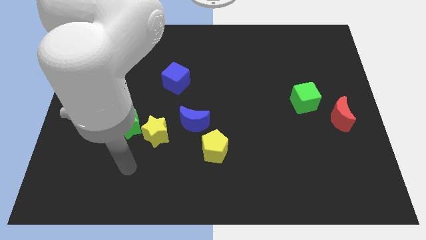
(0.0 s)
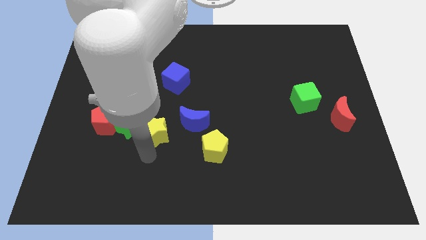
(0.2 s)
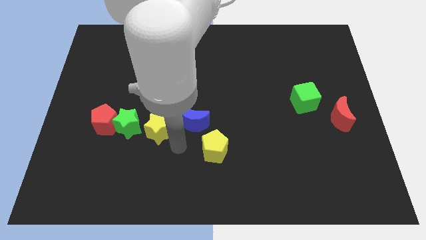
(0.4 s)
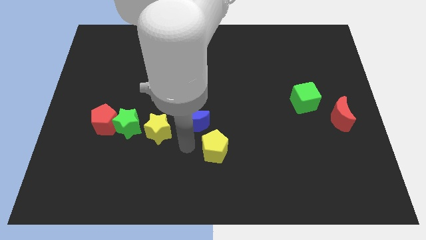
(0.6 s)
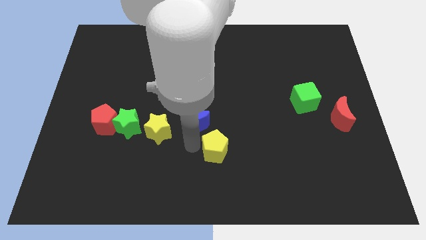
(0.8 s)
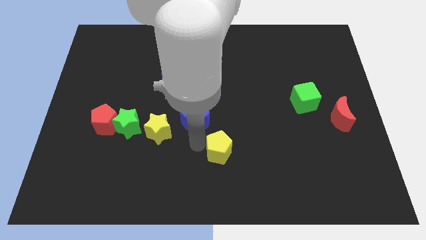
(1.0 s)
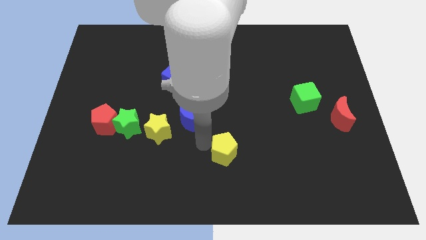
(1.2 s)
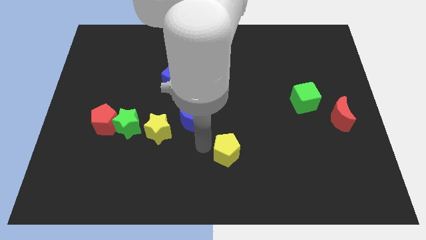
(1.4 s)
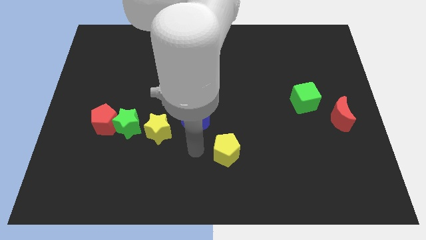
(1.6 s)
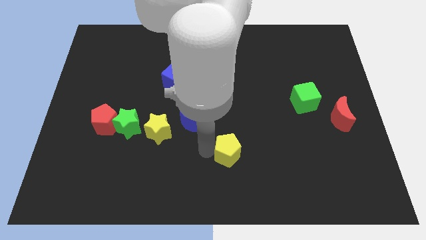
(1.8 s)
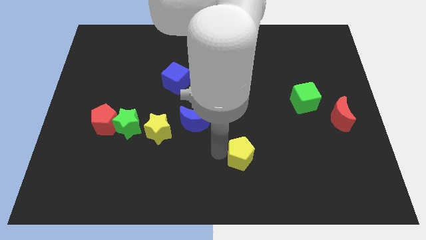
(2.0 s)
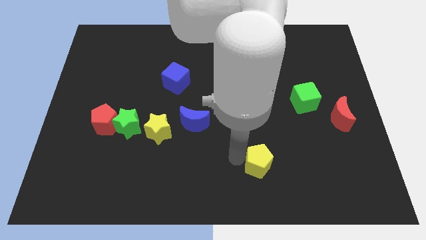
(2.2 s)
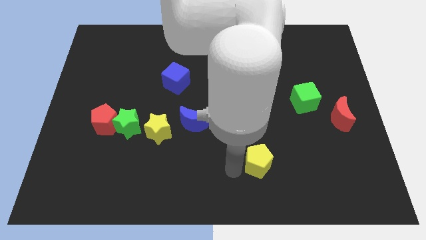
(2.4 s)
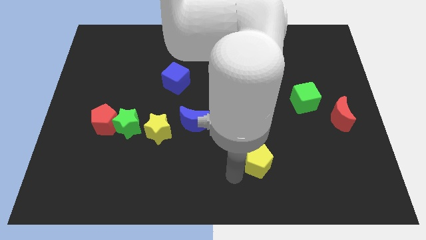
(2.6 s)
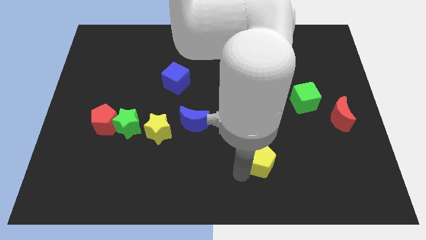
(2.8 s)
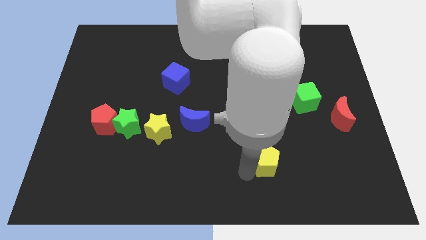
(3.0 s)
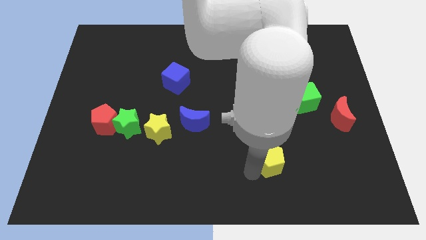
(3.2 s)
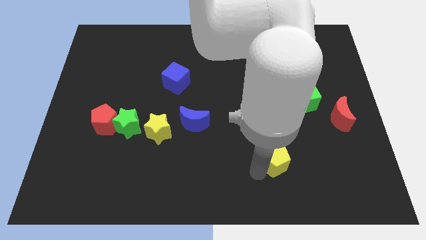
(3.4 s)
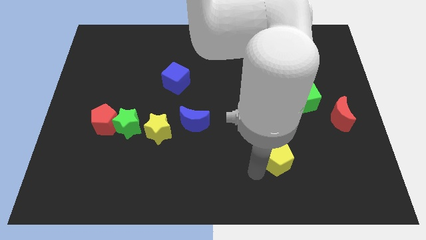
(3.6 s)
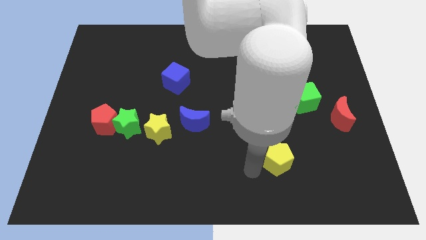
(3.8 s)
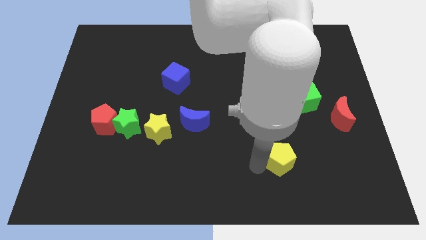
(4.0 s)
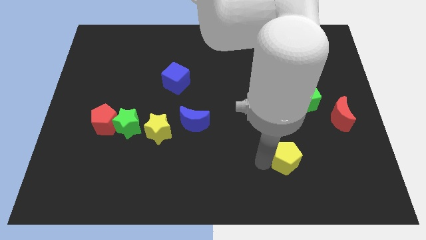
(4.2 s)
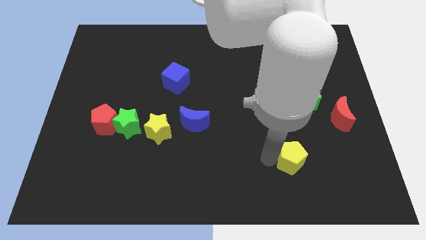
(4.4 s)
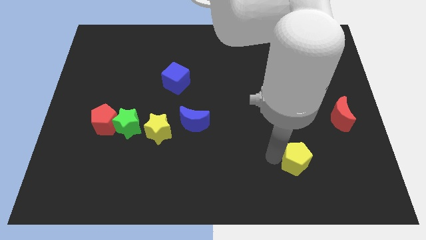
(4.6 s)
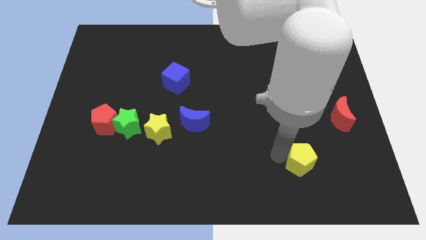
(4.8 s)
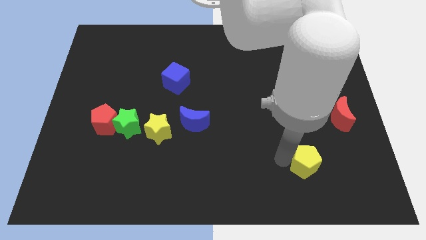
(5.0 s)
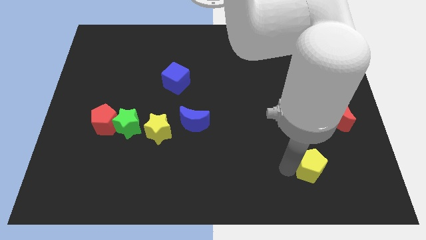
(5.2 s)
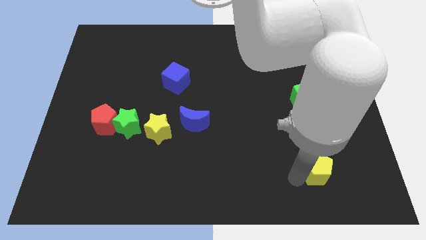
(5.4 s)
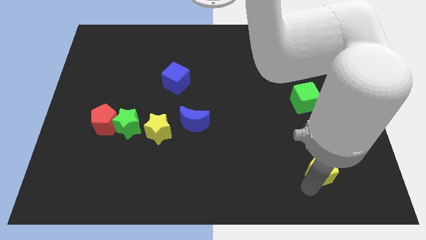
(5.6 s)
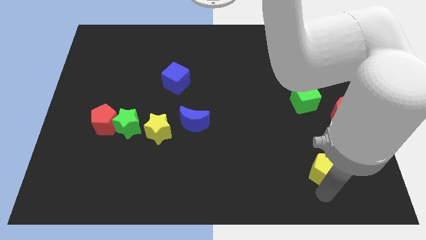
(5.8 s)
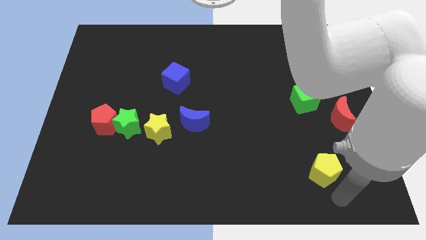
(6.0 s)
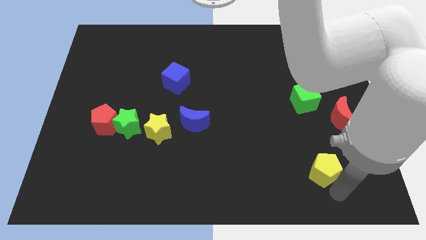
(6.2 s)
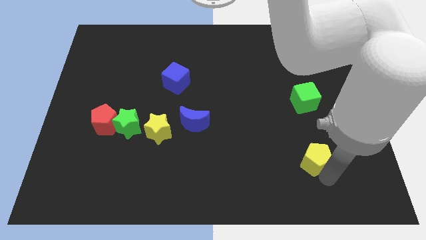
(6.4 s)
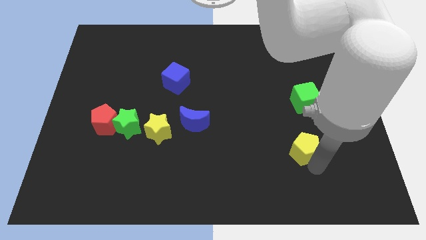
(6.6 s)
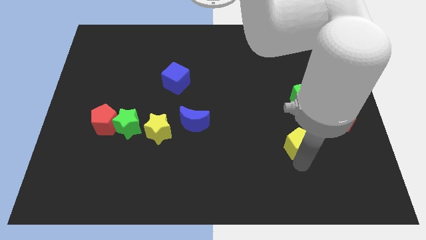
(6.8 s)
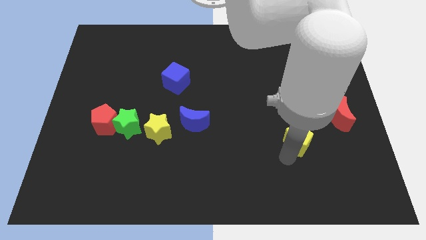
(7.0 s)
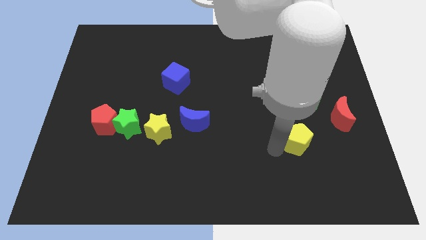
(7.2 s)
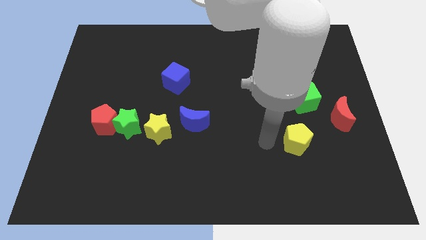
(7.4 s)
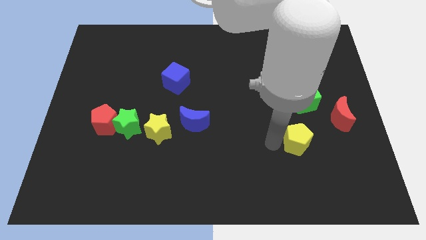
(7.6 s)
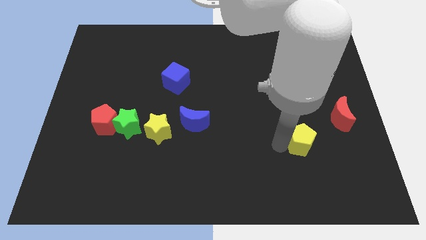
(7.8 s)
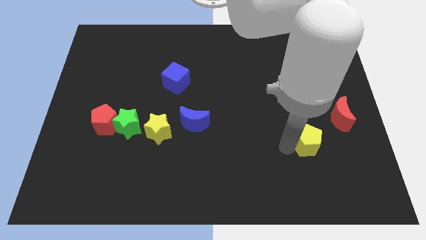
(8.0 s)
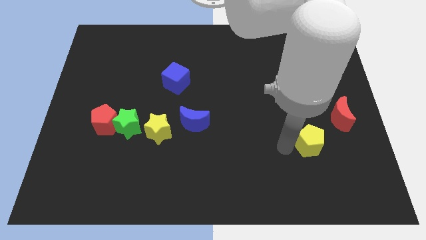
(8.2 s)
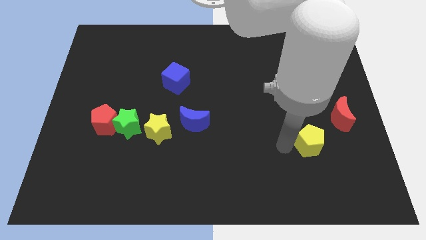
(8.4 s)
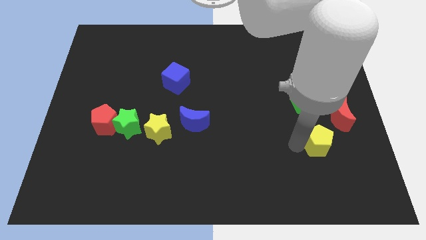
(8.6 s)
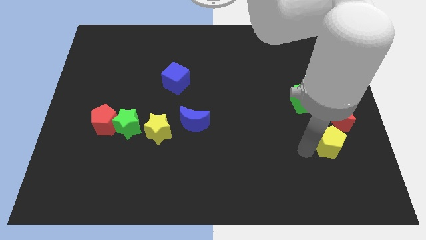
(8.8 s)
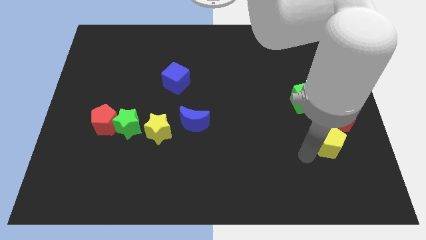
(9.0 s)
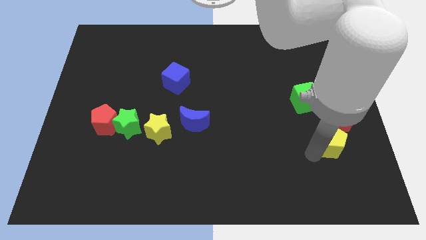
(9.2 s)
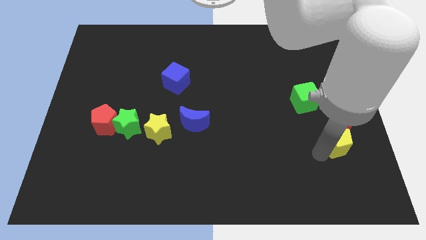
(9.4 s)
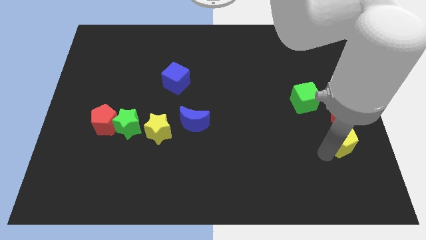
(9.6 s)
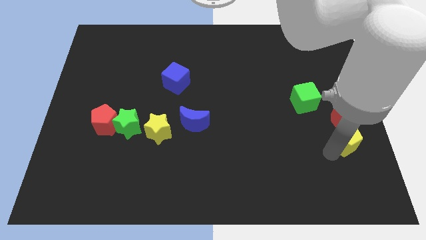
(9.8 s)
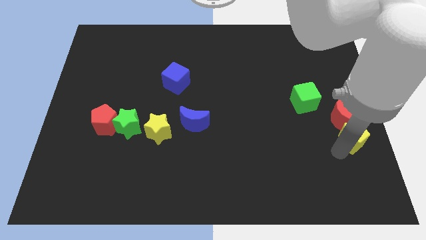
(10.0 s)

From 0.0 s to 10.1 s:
slide the yellow pentagon to the center right

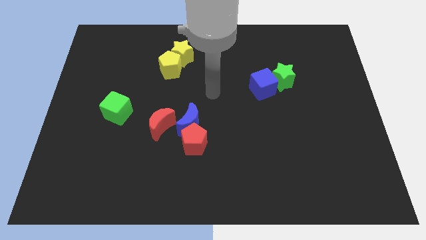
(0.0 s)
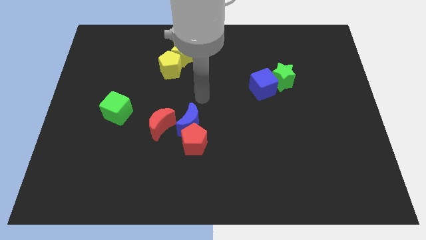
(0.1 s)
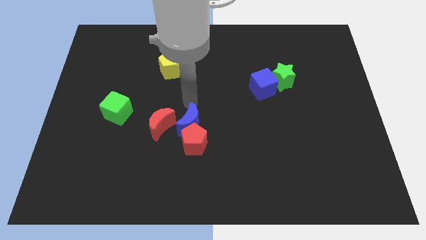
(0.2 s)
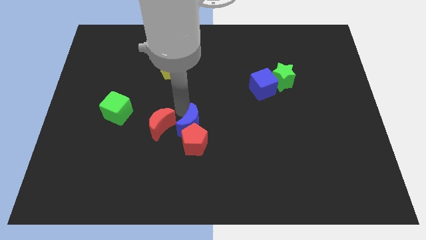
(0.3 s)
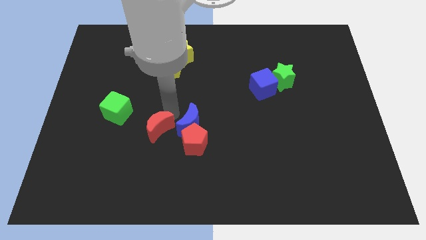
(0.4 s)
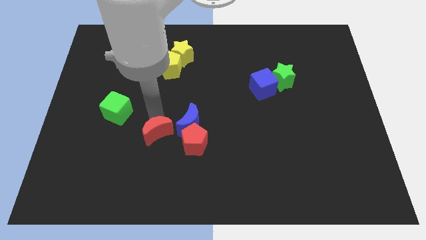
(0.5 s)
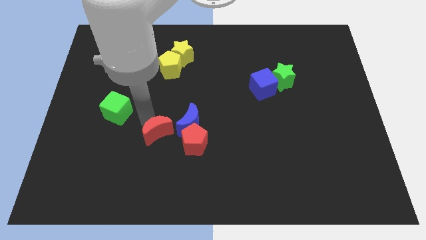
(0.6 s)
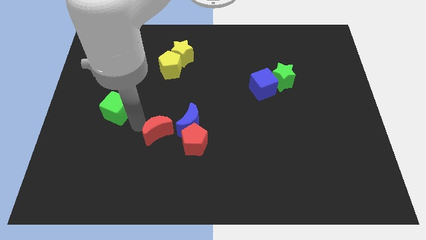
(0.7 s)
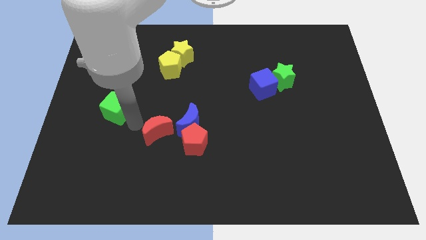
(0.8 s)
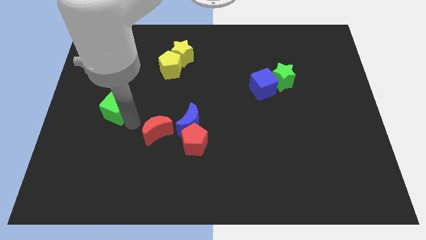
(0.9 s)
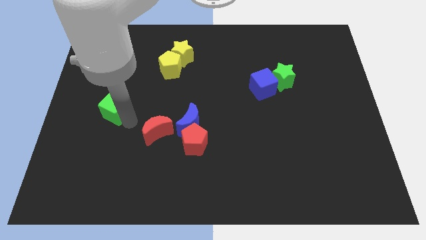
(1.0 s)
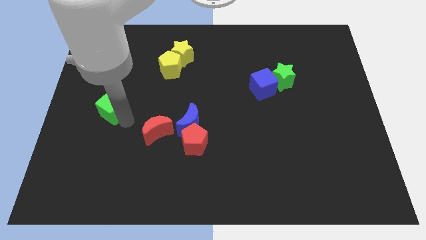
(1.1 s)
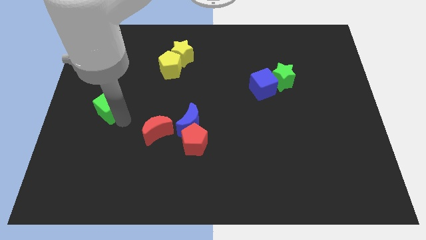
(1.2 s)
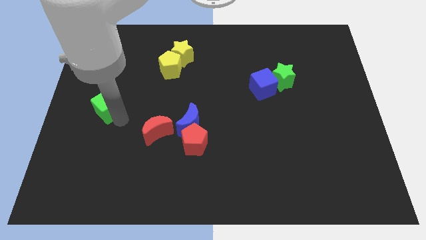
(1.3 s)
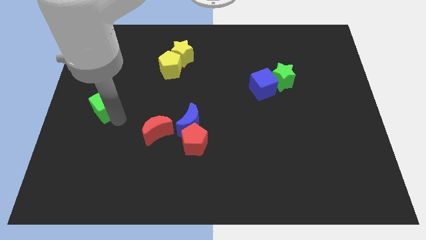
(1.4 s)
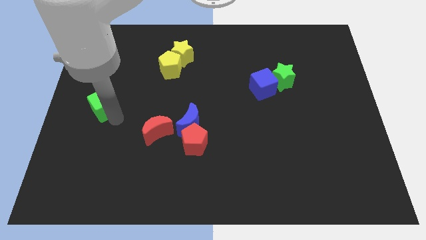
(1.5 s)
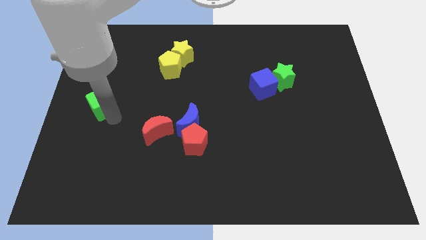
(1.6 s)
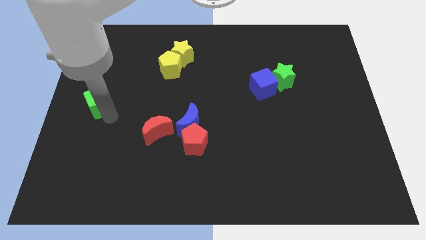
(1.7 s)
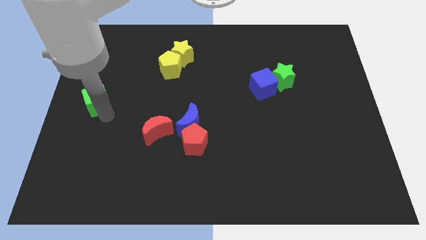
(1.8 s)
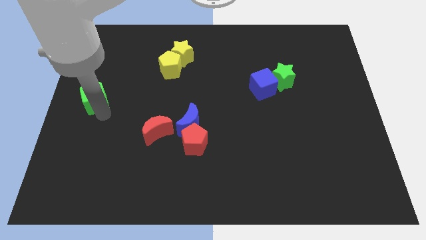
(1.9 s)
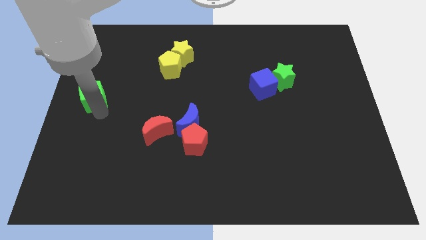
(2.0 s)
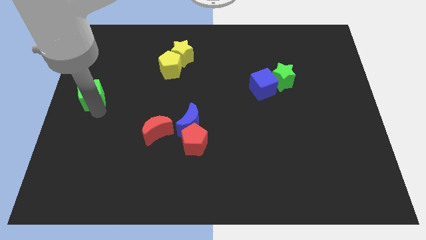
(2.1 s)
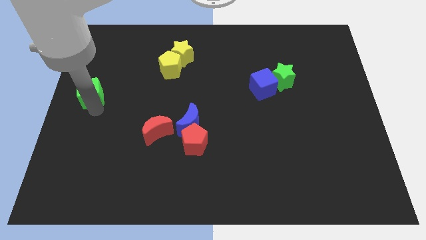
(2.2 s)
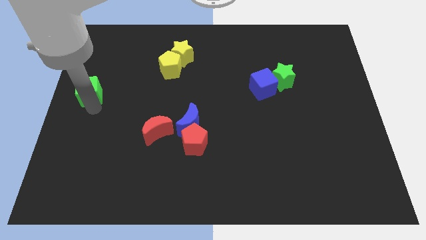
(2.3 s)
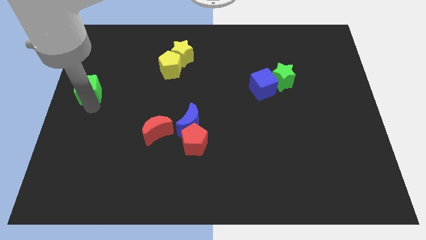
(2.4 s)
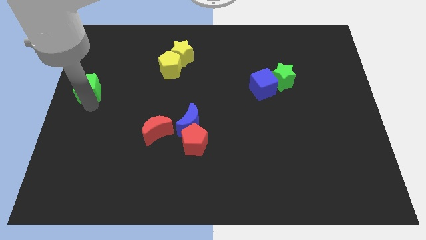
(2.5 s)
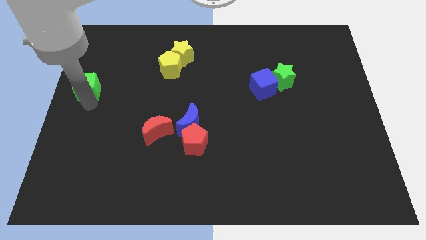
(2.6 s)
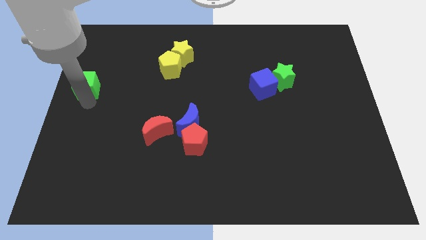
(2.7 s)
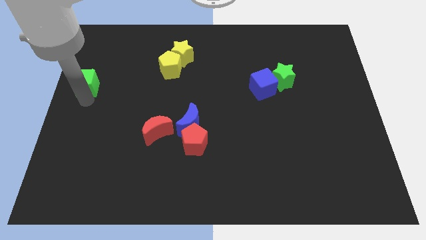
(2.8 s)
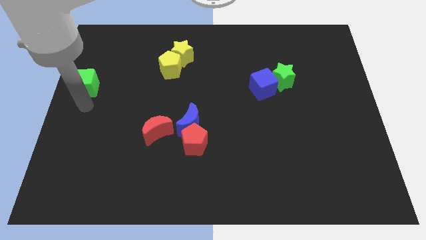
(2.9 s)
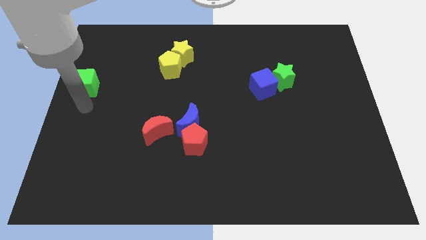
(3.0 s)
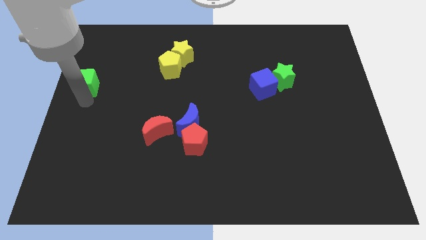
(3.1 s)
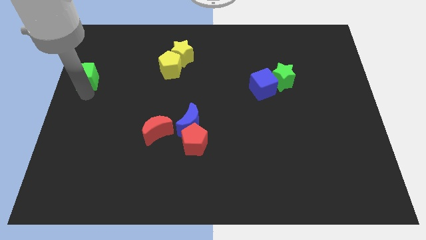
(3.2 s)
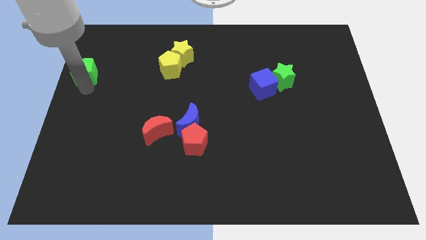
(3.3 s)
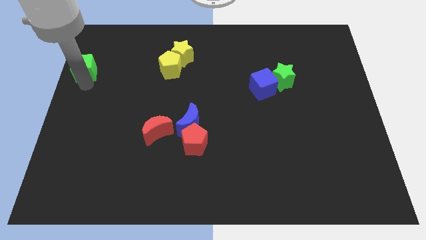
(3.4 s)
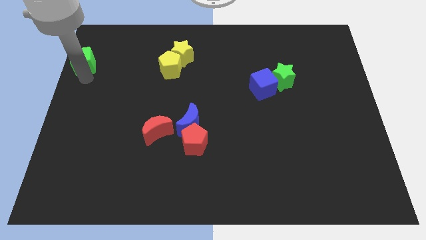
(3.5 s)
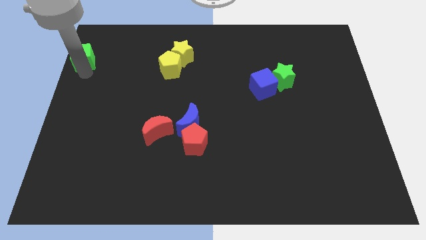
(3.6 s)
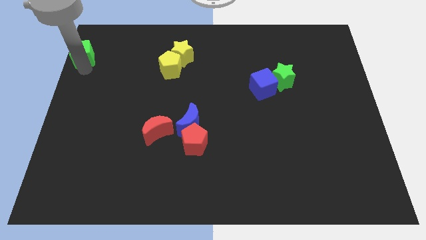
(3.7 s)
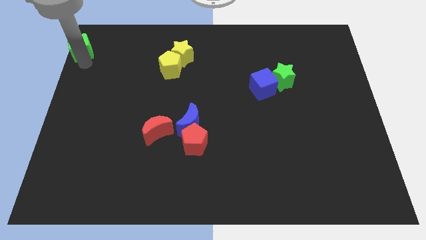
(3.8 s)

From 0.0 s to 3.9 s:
move the green cube to the upper left corner
